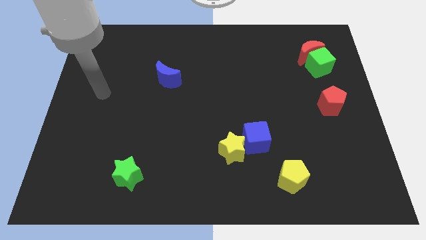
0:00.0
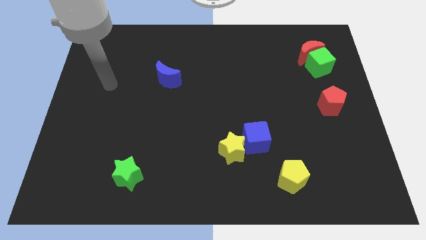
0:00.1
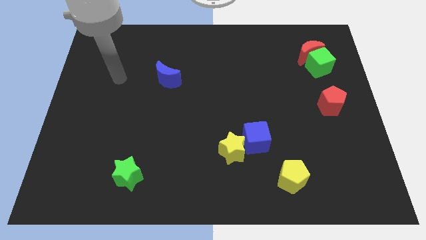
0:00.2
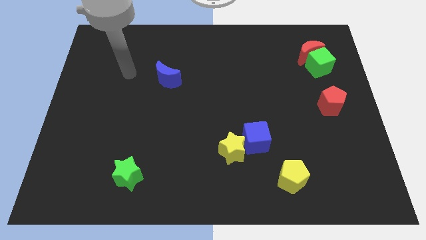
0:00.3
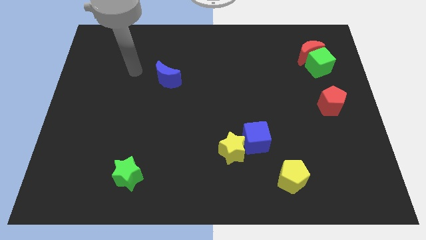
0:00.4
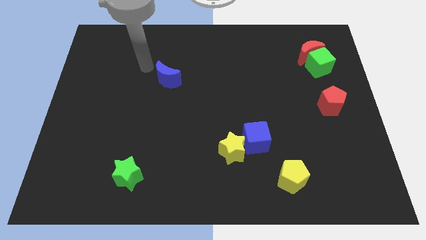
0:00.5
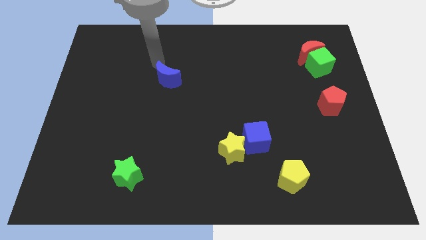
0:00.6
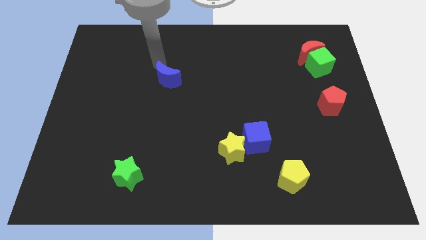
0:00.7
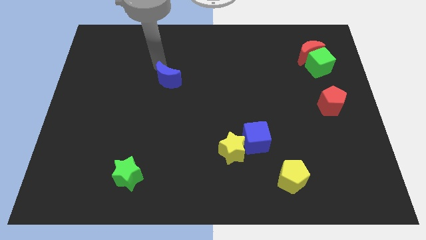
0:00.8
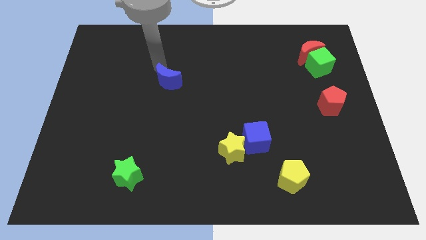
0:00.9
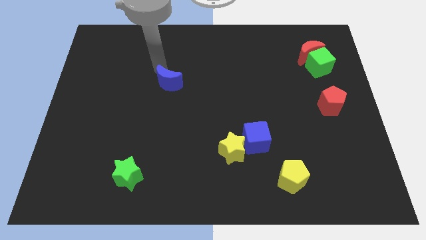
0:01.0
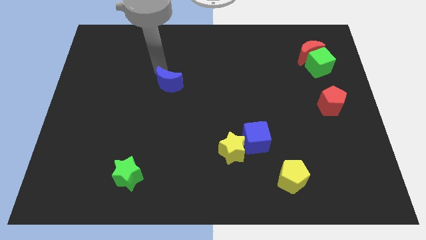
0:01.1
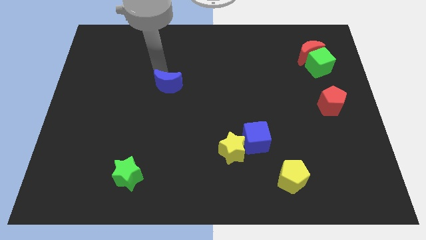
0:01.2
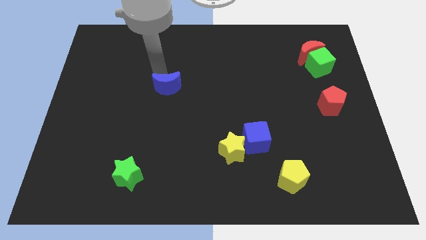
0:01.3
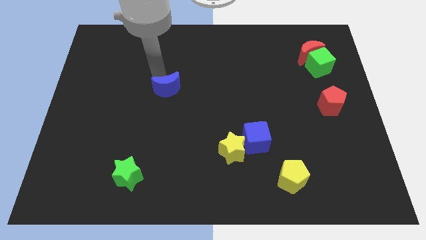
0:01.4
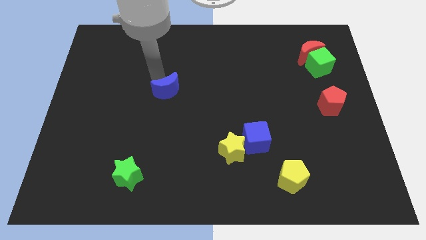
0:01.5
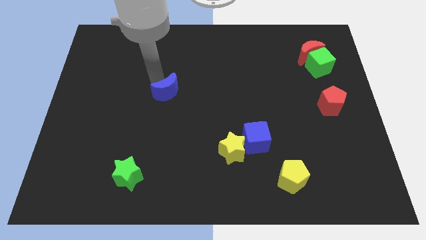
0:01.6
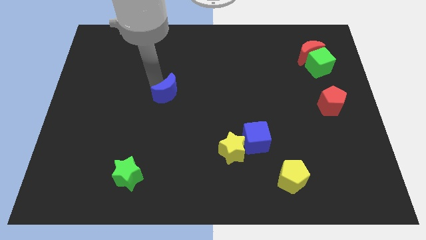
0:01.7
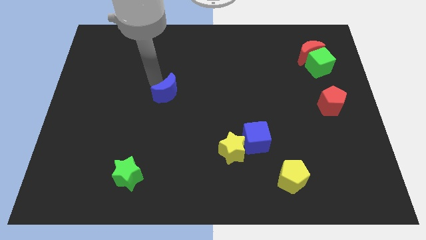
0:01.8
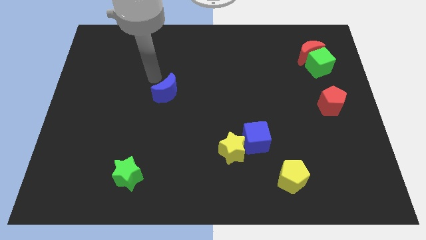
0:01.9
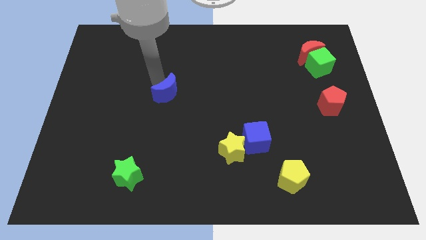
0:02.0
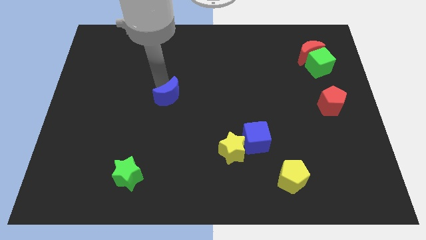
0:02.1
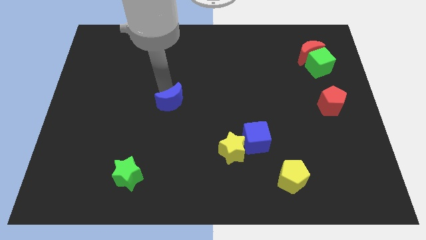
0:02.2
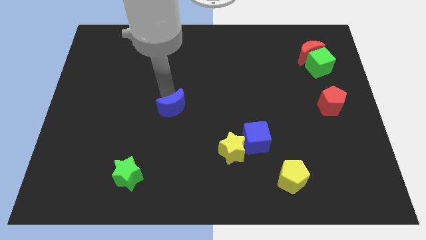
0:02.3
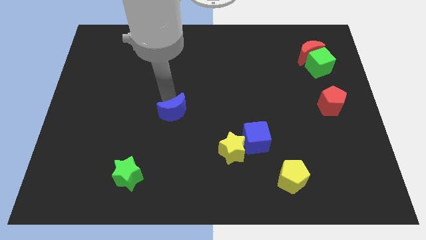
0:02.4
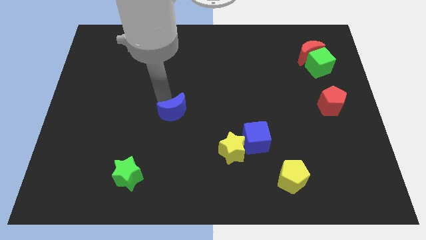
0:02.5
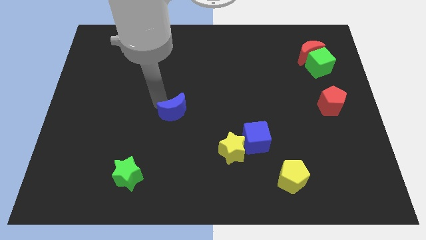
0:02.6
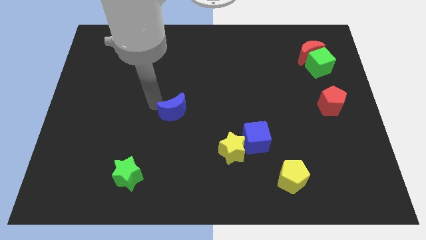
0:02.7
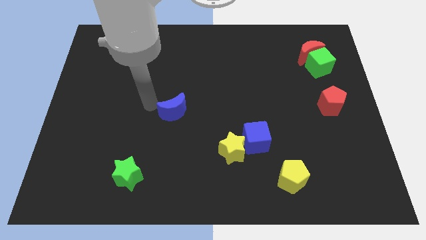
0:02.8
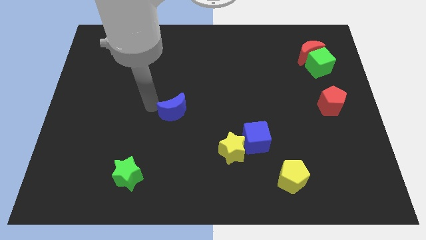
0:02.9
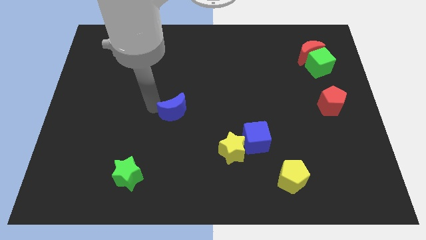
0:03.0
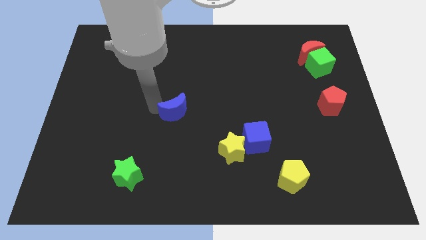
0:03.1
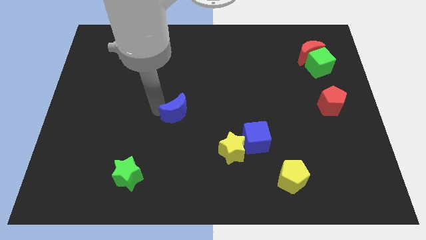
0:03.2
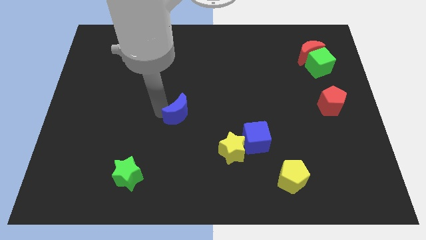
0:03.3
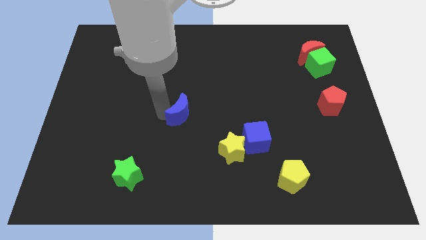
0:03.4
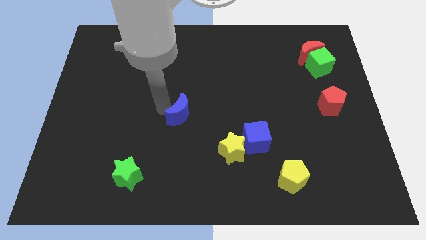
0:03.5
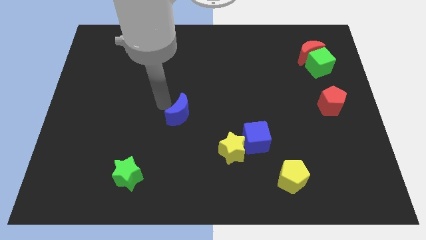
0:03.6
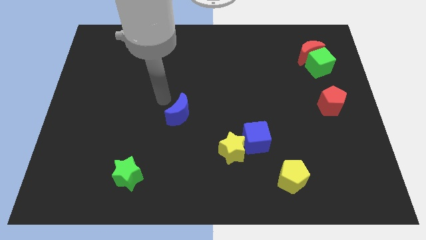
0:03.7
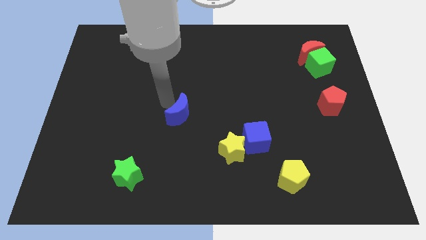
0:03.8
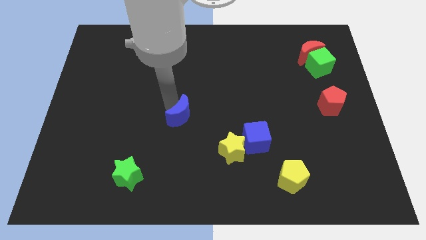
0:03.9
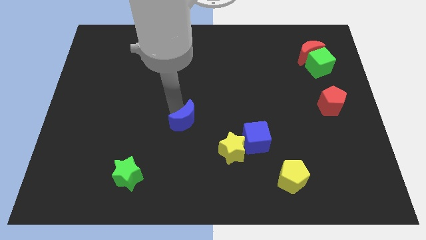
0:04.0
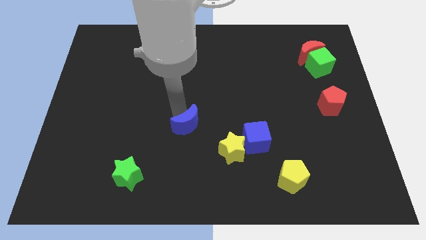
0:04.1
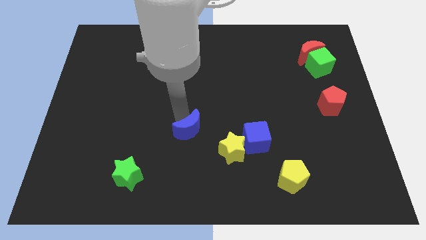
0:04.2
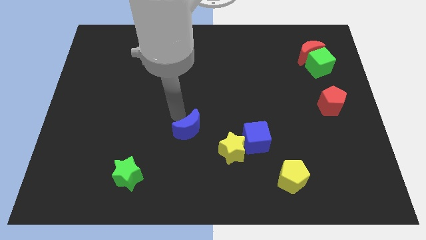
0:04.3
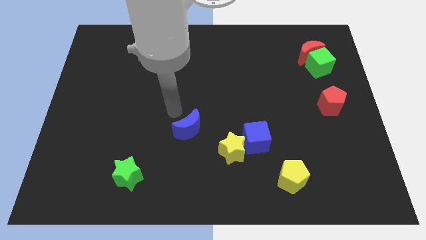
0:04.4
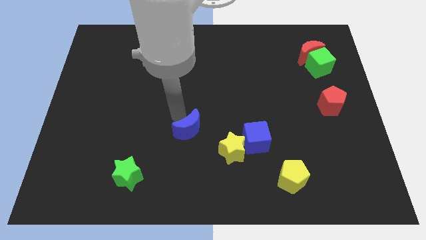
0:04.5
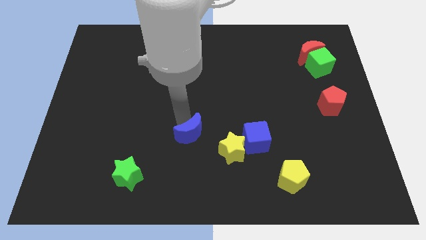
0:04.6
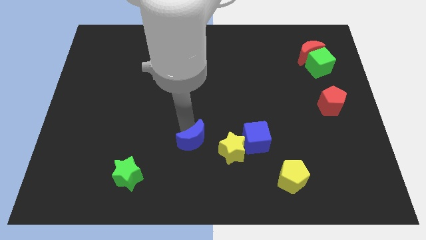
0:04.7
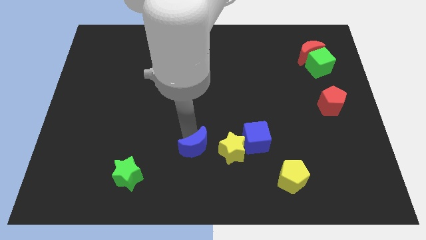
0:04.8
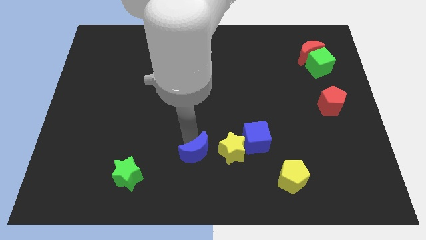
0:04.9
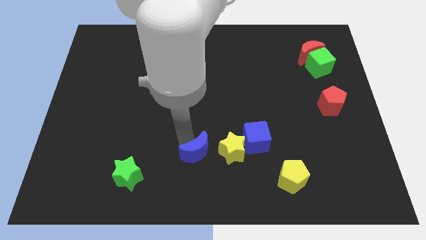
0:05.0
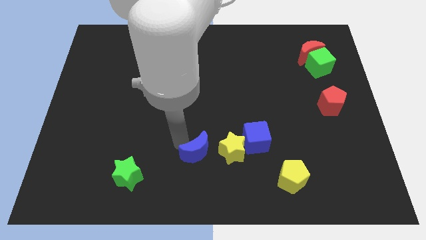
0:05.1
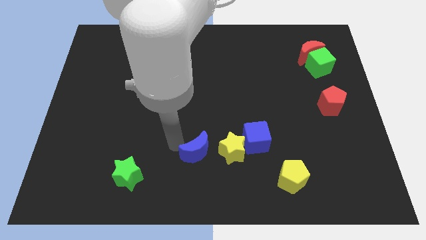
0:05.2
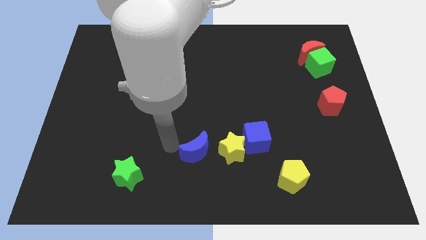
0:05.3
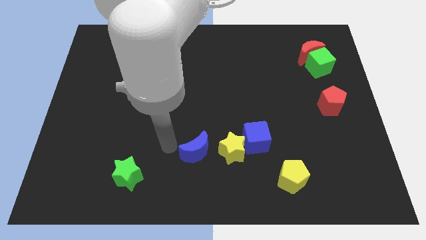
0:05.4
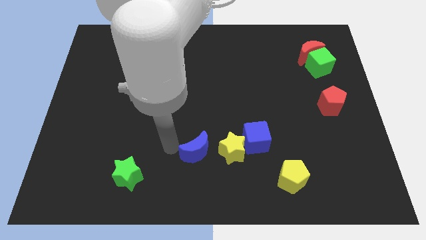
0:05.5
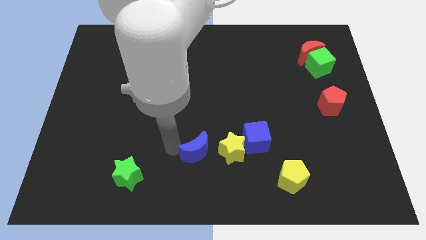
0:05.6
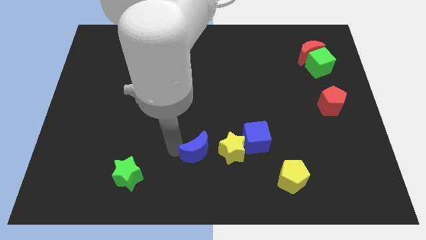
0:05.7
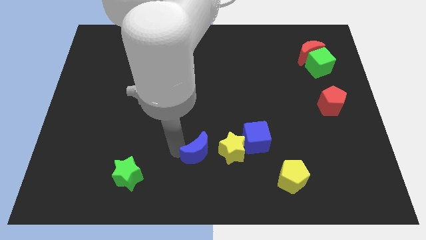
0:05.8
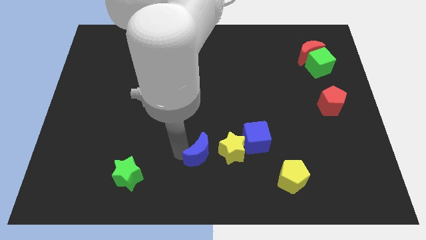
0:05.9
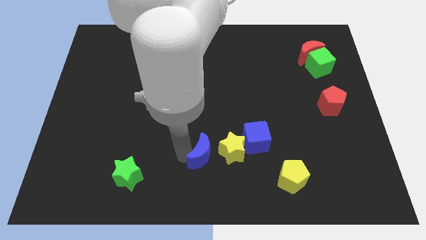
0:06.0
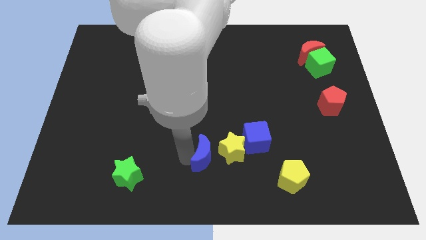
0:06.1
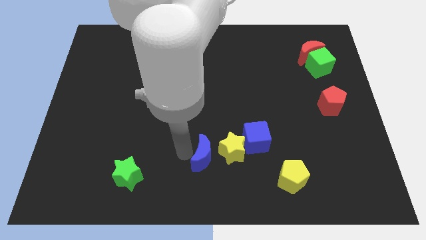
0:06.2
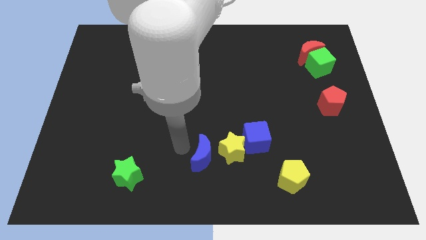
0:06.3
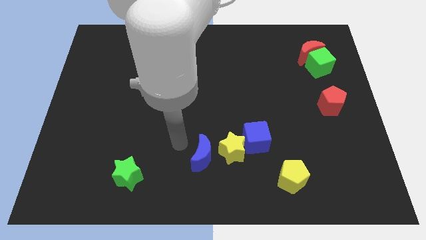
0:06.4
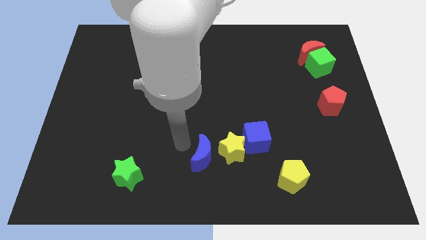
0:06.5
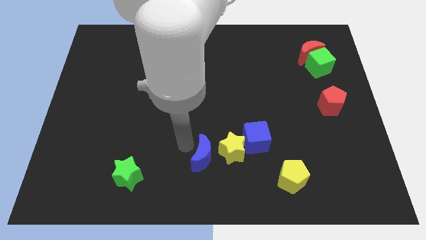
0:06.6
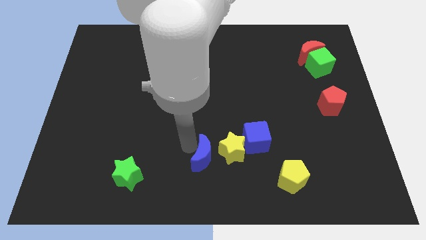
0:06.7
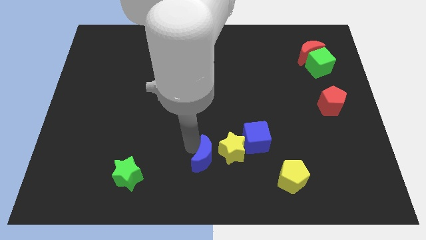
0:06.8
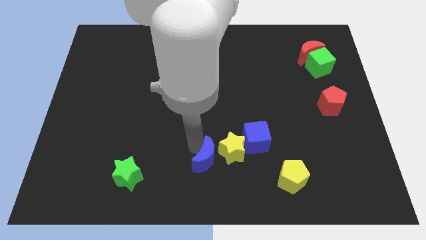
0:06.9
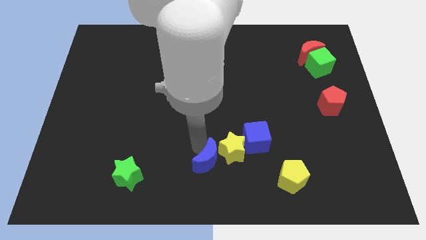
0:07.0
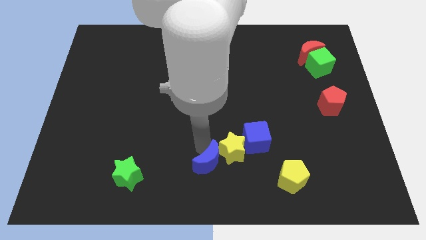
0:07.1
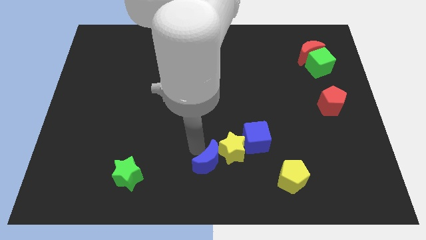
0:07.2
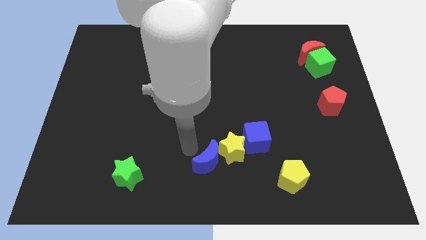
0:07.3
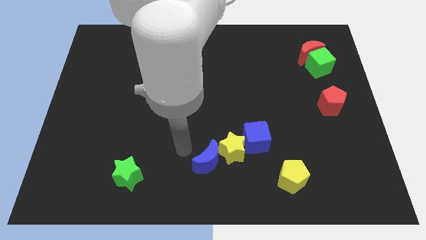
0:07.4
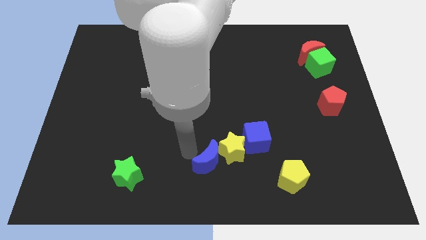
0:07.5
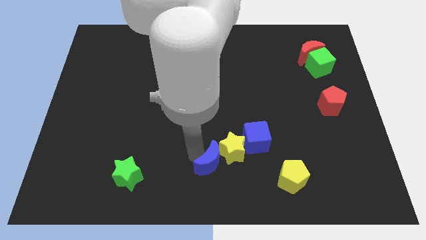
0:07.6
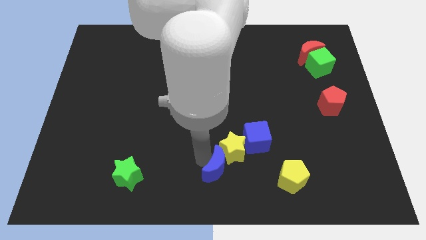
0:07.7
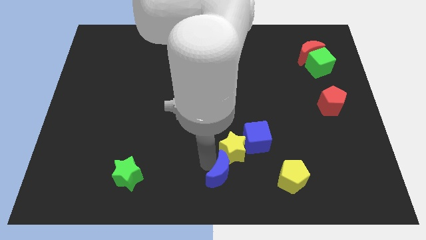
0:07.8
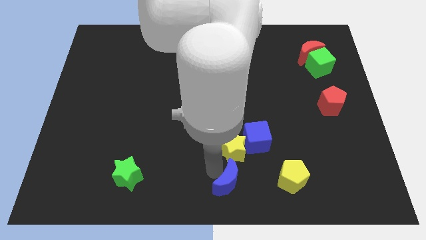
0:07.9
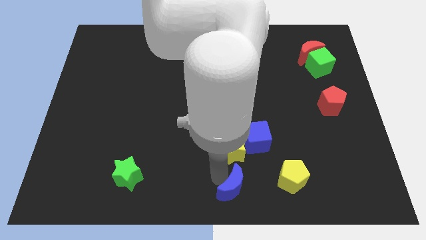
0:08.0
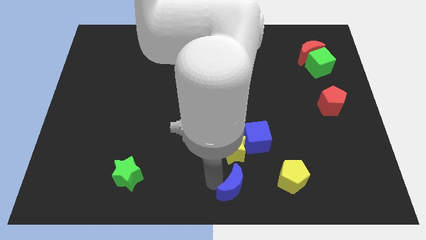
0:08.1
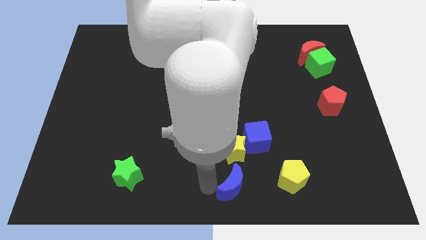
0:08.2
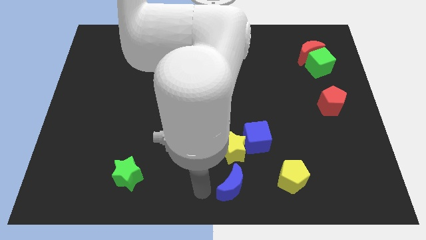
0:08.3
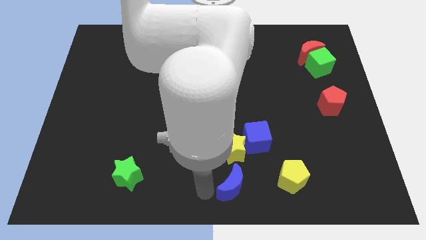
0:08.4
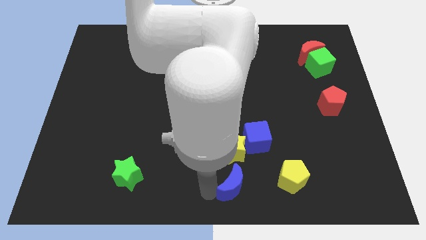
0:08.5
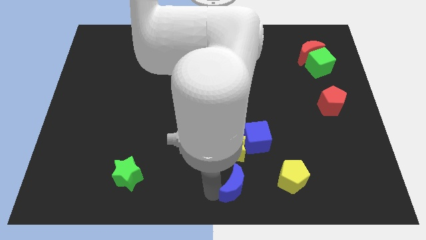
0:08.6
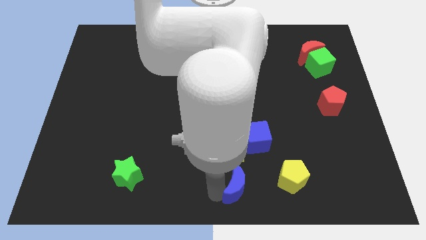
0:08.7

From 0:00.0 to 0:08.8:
move the blue moon below the blue cube
